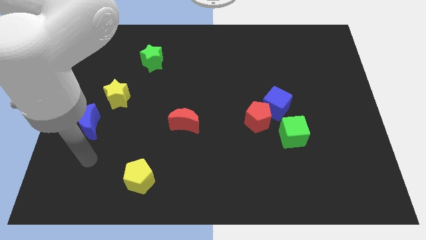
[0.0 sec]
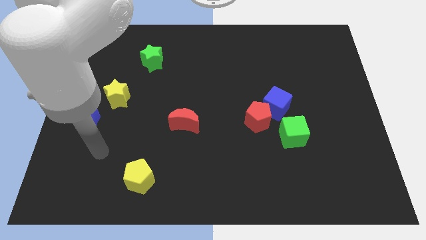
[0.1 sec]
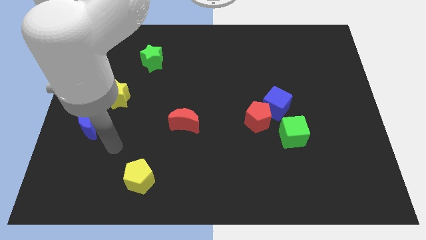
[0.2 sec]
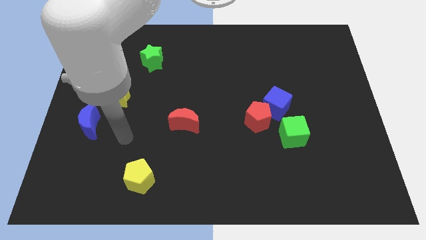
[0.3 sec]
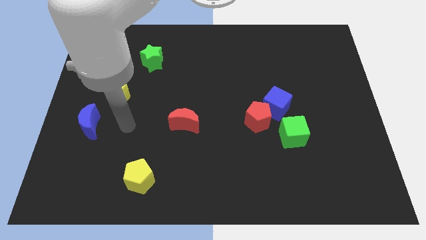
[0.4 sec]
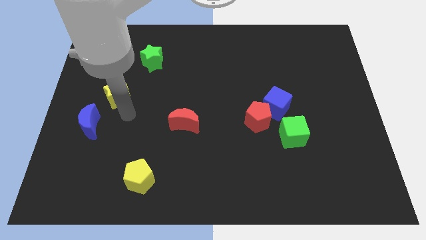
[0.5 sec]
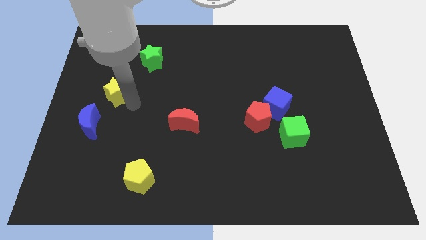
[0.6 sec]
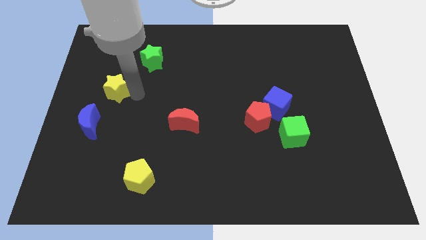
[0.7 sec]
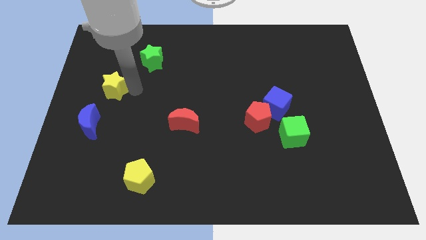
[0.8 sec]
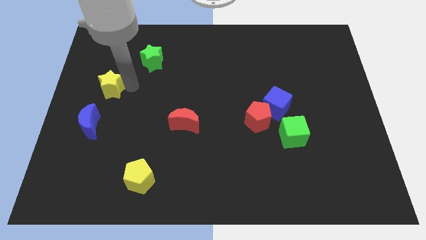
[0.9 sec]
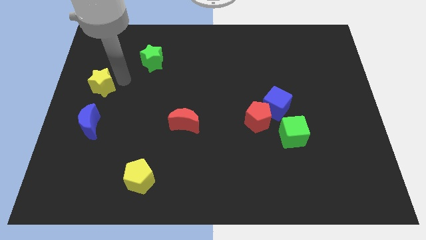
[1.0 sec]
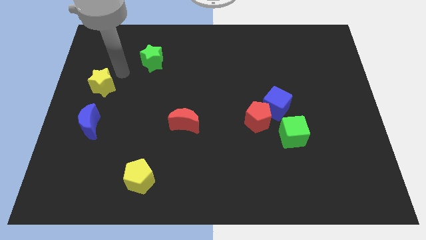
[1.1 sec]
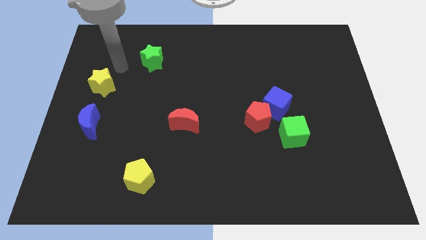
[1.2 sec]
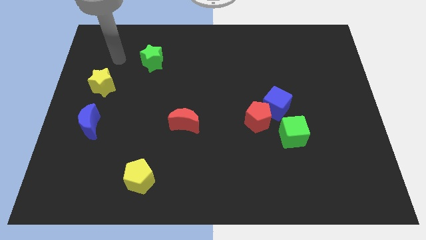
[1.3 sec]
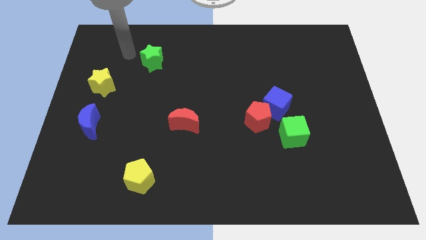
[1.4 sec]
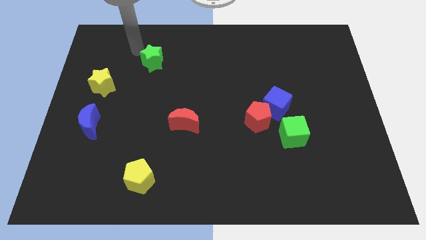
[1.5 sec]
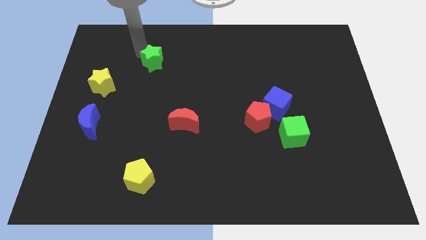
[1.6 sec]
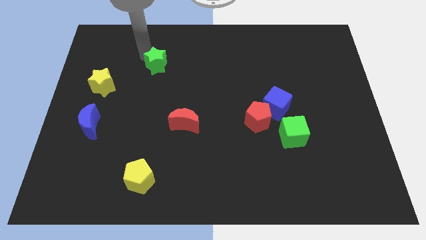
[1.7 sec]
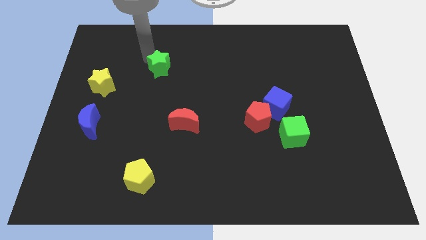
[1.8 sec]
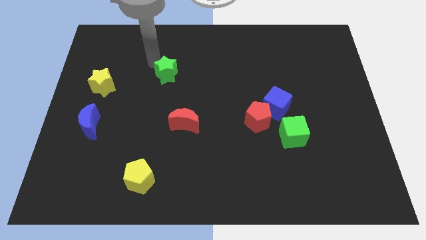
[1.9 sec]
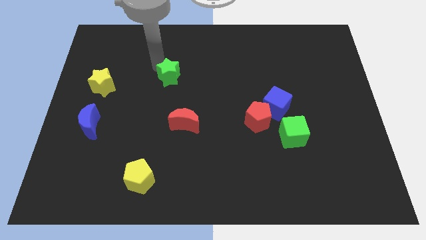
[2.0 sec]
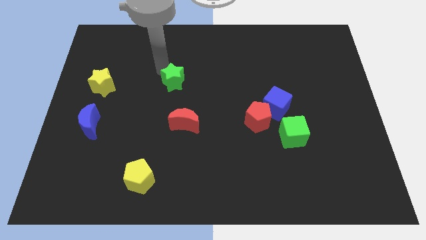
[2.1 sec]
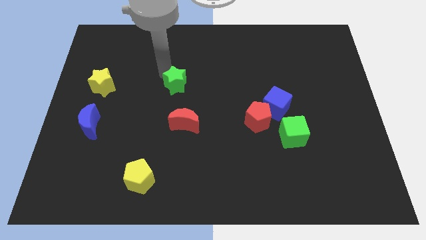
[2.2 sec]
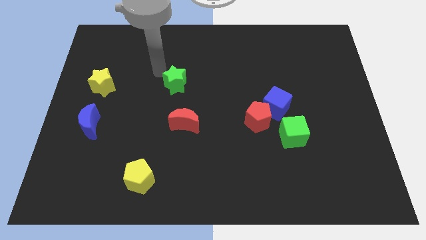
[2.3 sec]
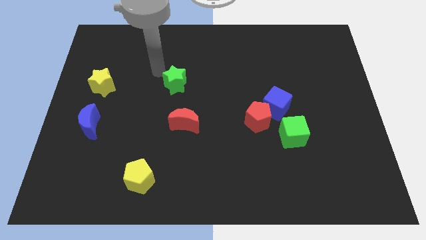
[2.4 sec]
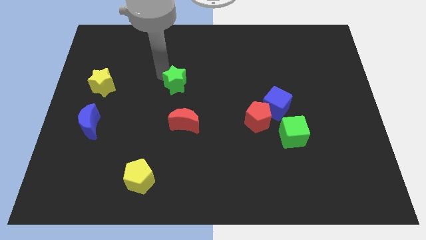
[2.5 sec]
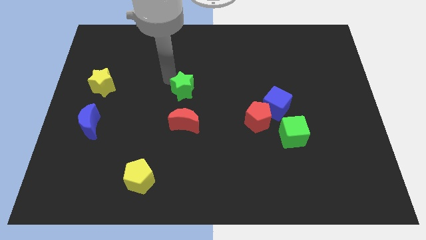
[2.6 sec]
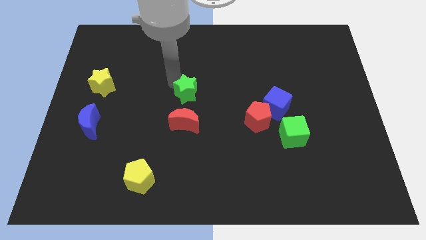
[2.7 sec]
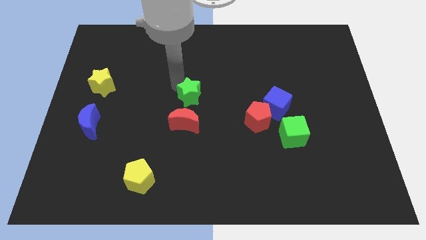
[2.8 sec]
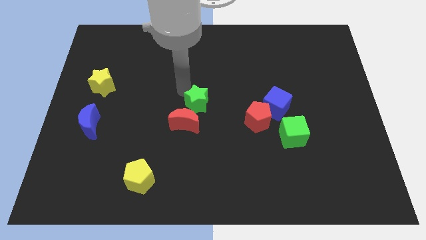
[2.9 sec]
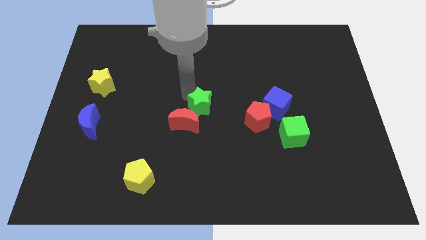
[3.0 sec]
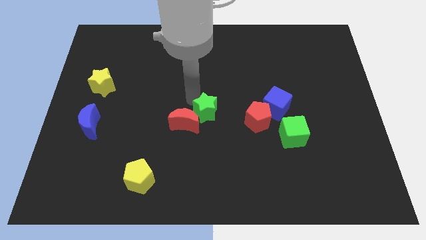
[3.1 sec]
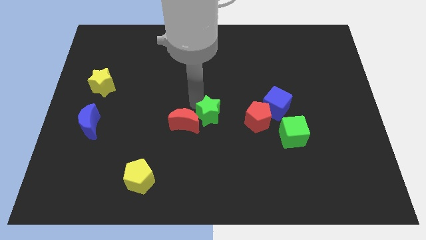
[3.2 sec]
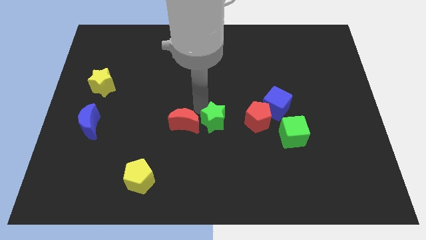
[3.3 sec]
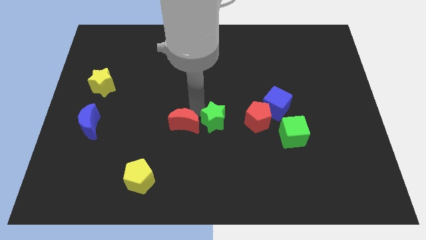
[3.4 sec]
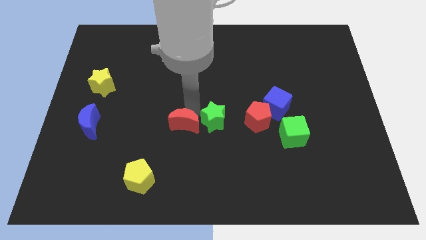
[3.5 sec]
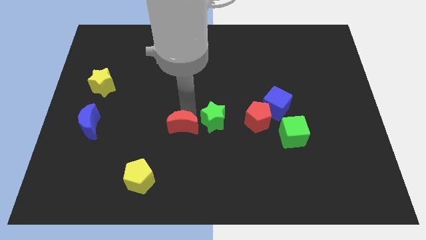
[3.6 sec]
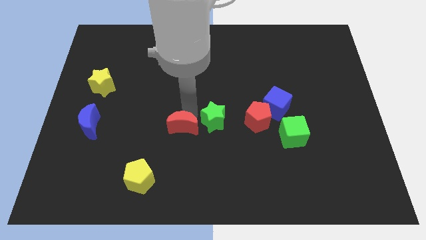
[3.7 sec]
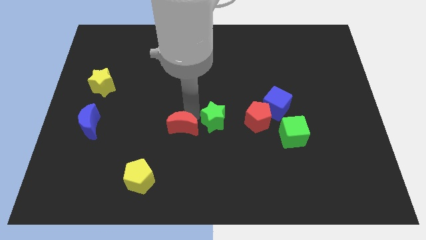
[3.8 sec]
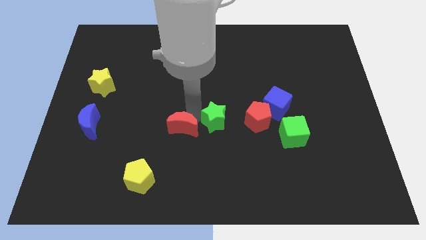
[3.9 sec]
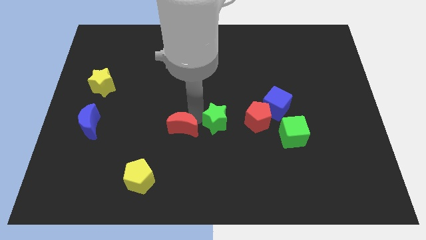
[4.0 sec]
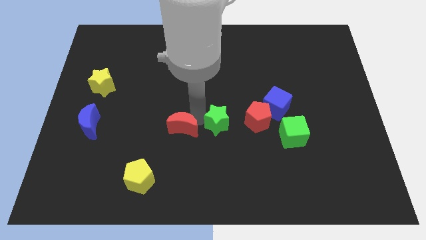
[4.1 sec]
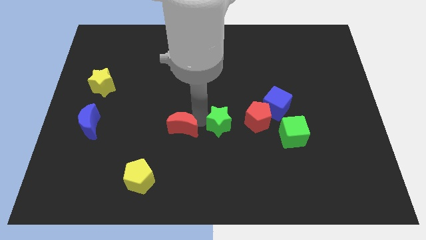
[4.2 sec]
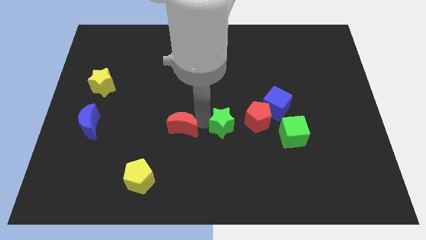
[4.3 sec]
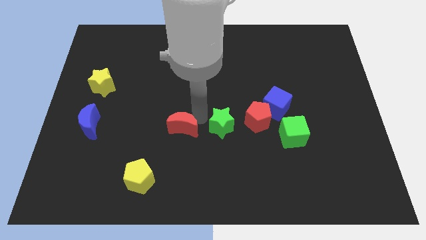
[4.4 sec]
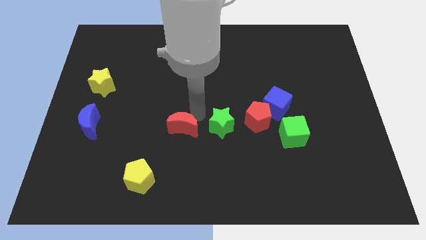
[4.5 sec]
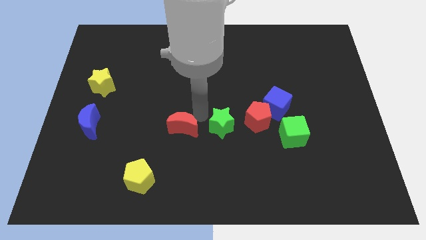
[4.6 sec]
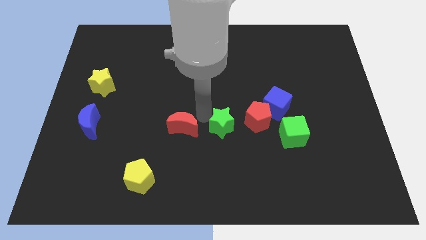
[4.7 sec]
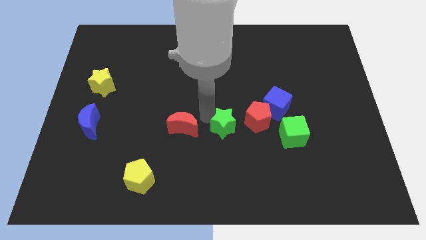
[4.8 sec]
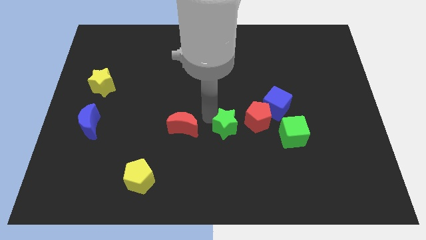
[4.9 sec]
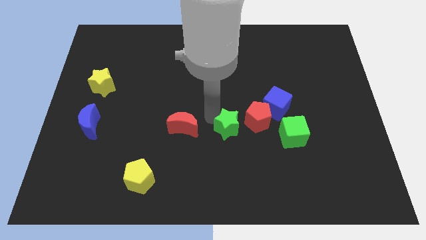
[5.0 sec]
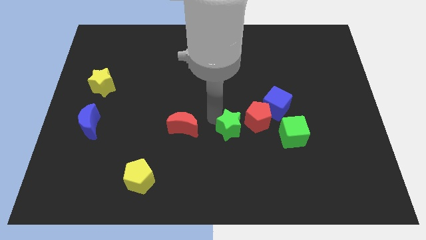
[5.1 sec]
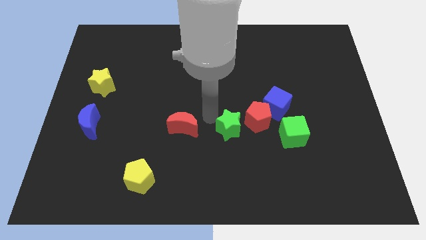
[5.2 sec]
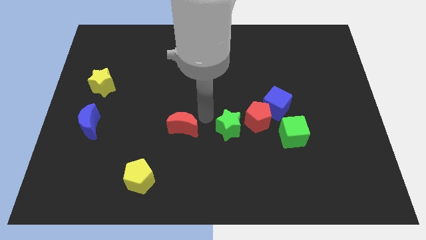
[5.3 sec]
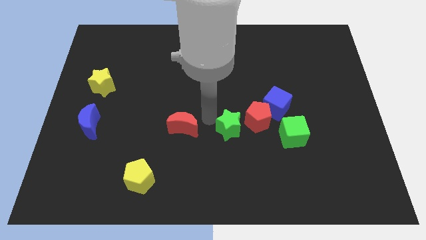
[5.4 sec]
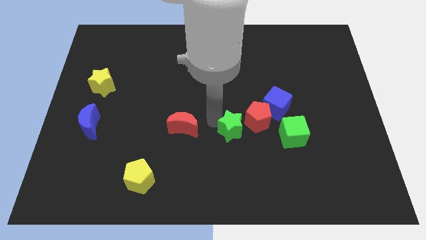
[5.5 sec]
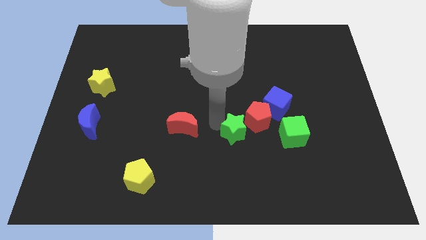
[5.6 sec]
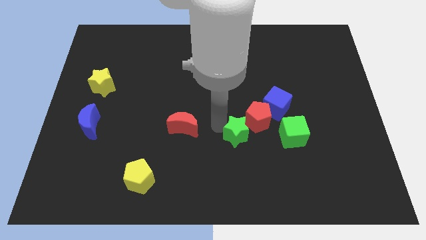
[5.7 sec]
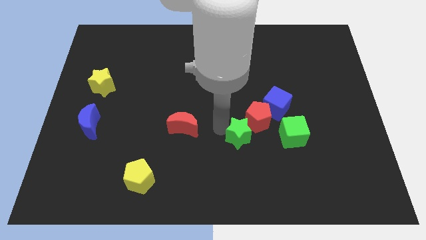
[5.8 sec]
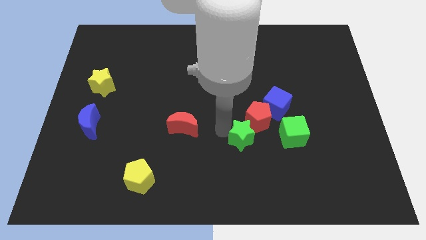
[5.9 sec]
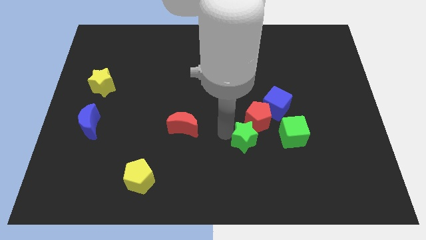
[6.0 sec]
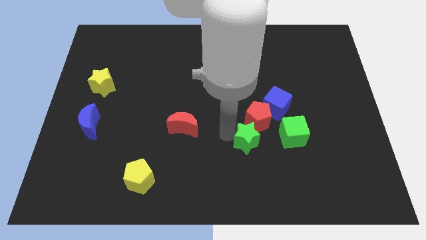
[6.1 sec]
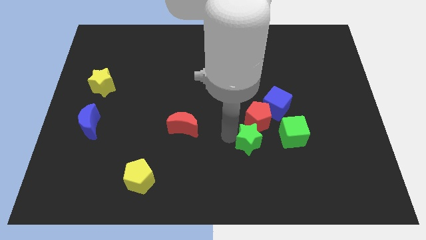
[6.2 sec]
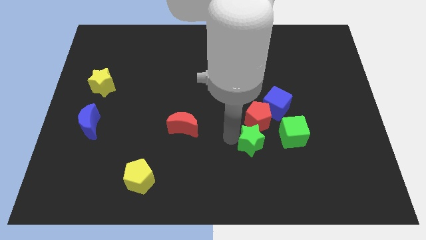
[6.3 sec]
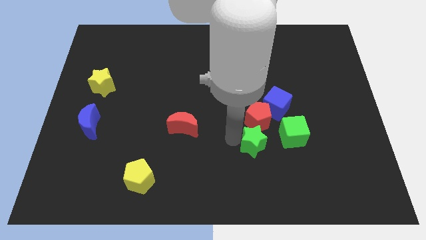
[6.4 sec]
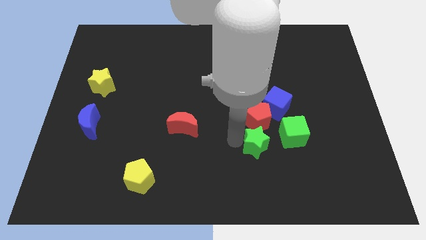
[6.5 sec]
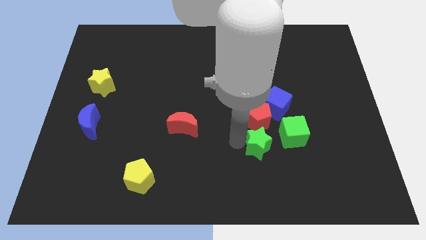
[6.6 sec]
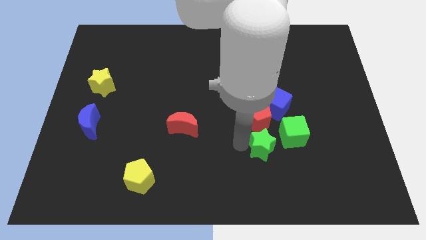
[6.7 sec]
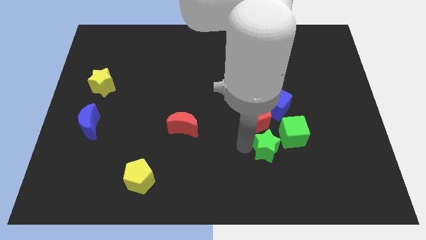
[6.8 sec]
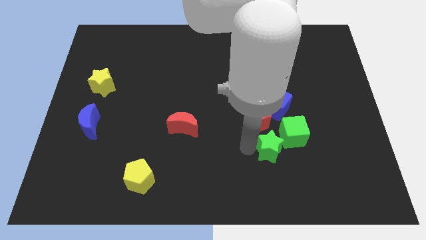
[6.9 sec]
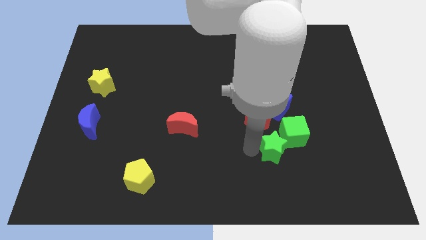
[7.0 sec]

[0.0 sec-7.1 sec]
slide the green star next to the green cube
